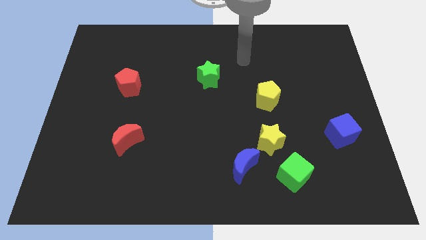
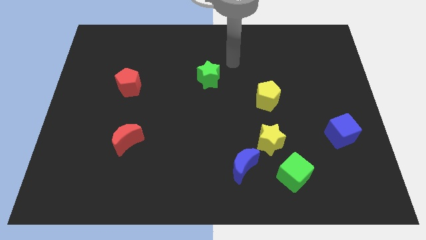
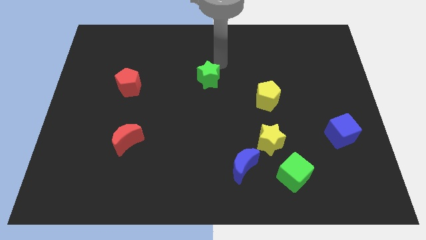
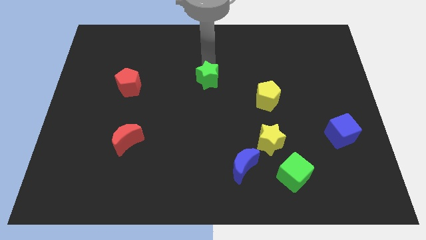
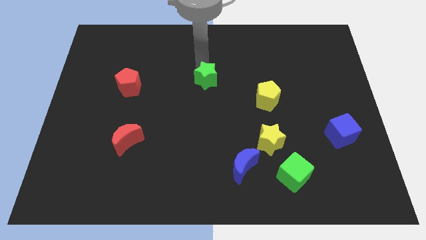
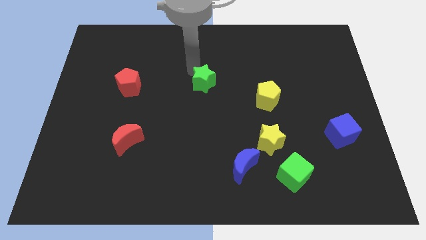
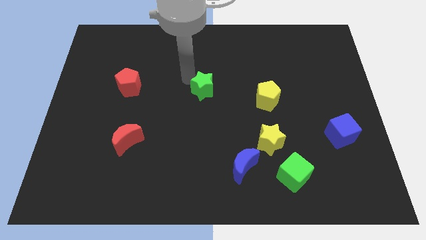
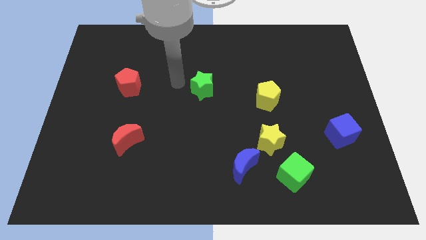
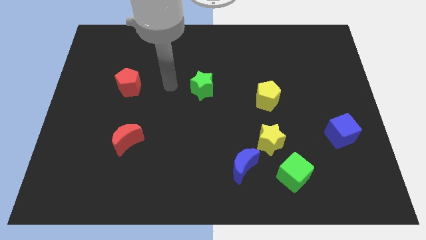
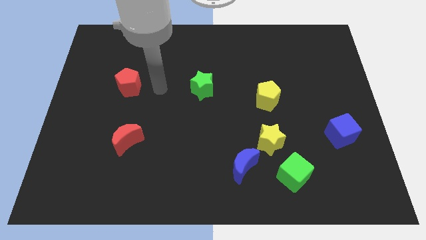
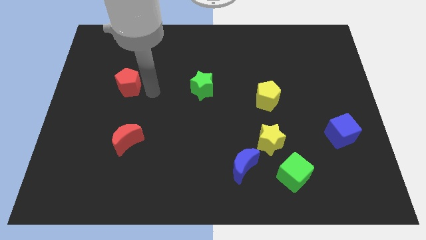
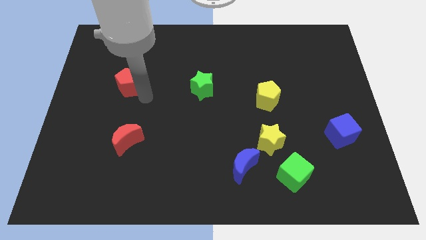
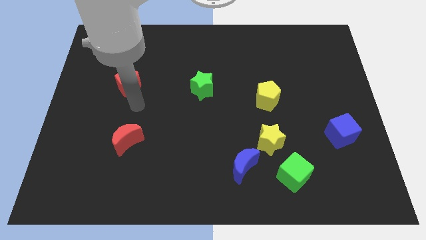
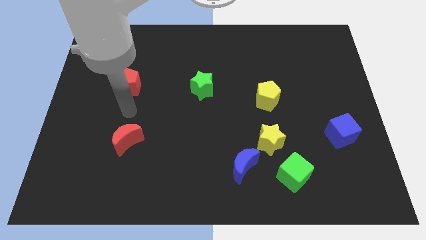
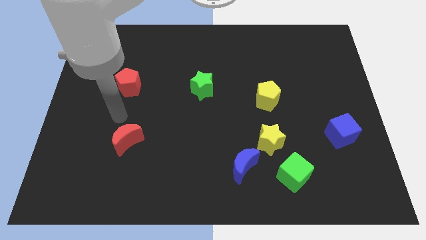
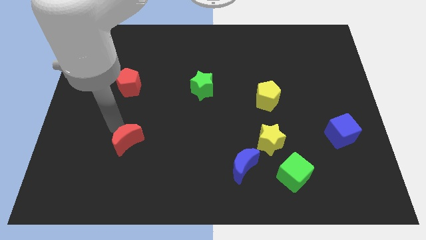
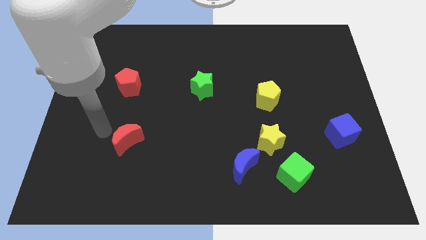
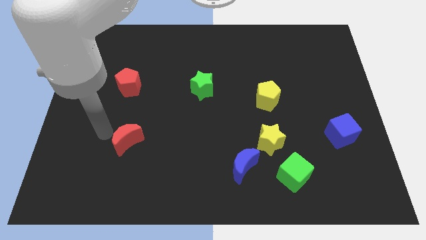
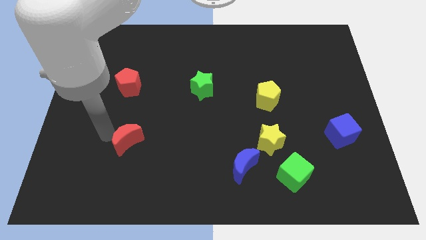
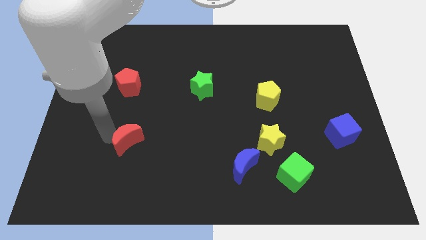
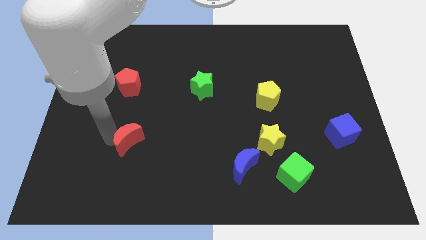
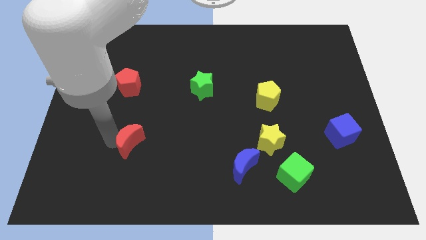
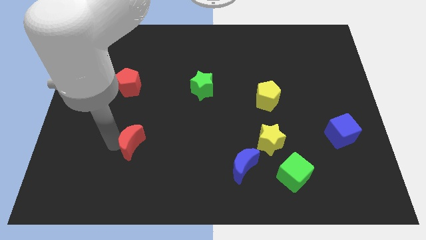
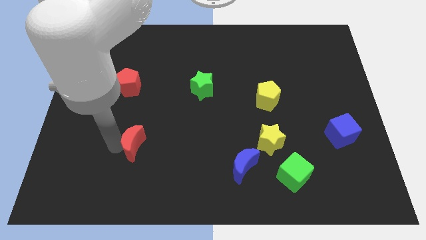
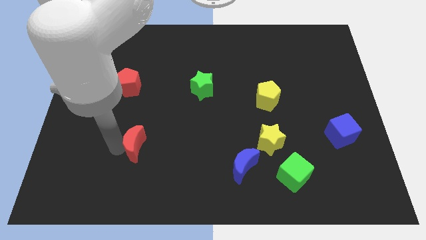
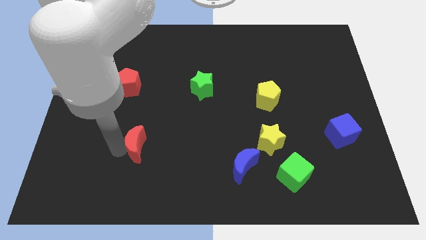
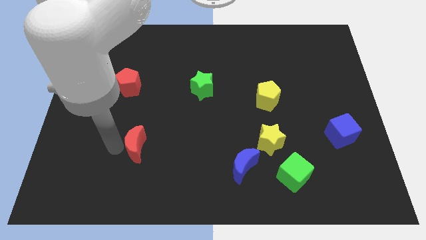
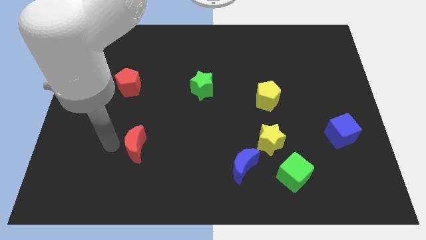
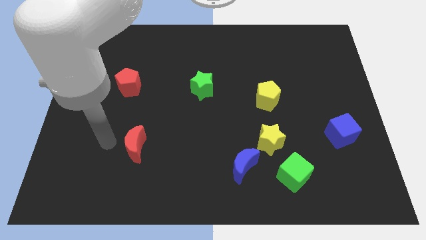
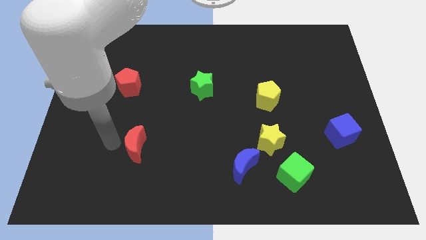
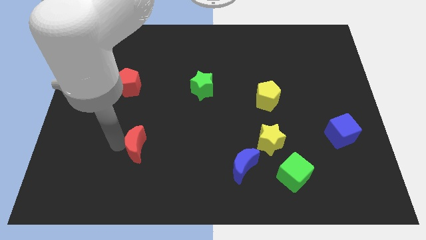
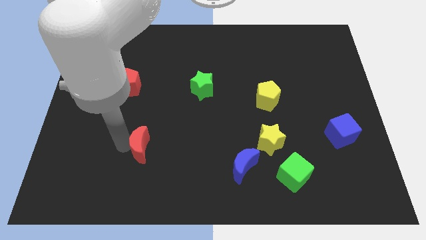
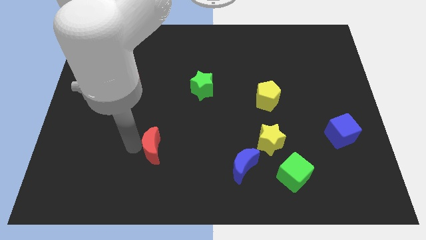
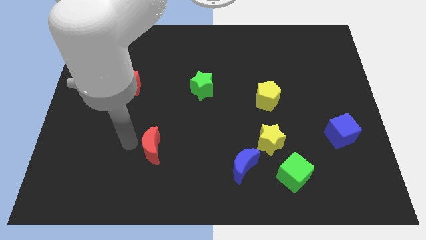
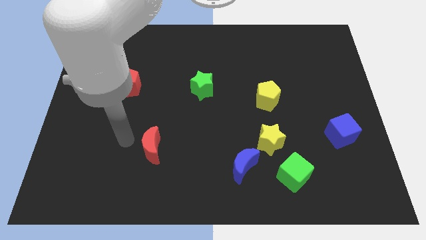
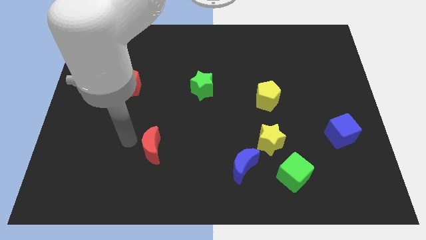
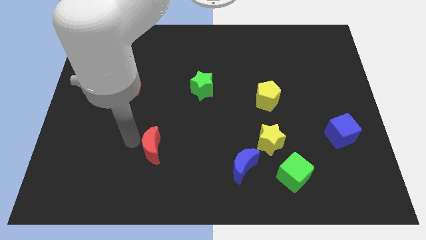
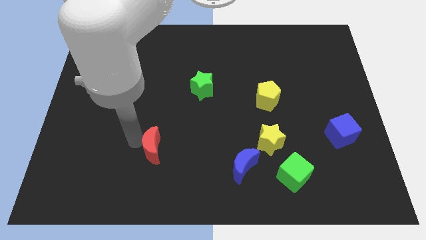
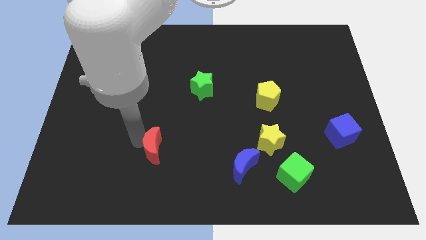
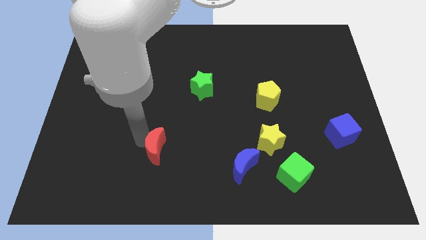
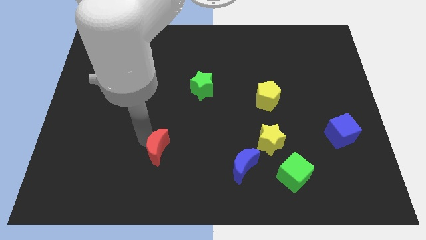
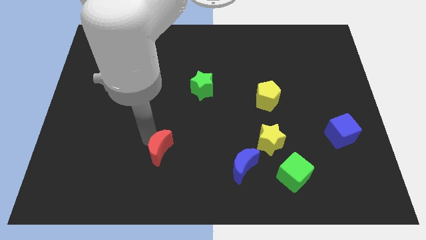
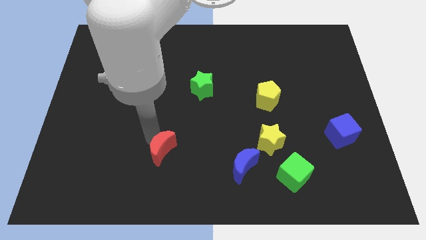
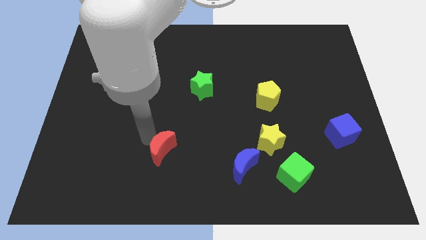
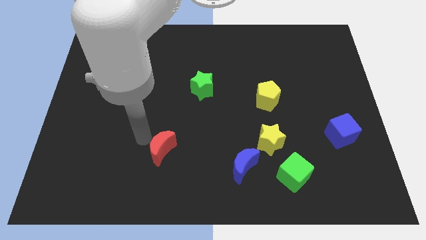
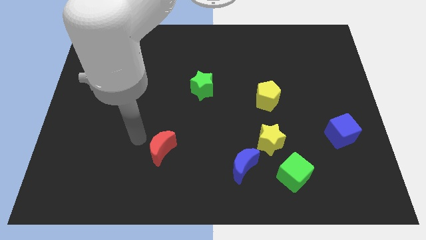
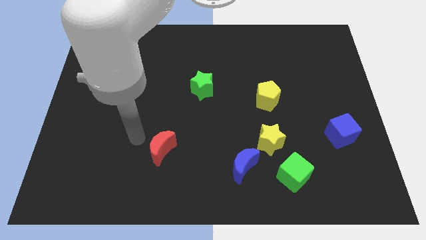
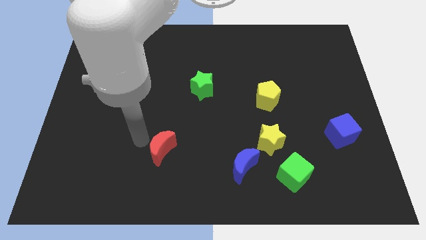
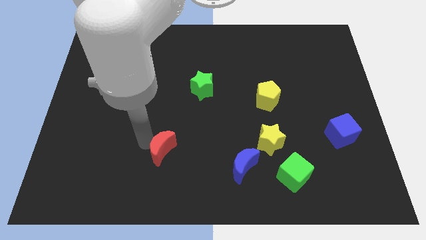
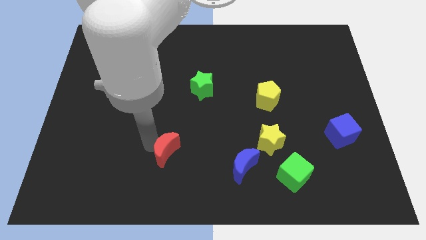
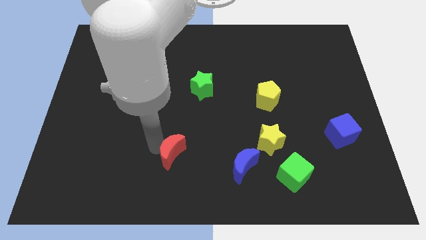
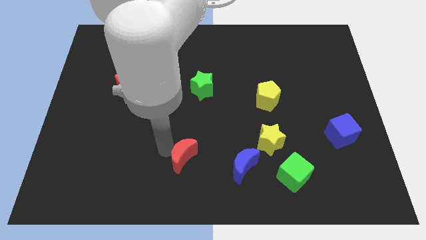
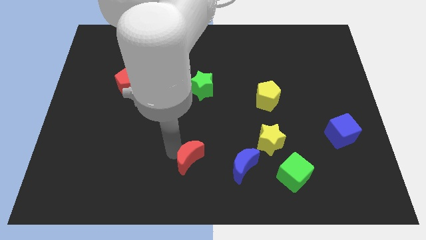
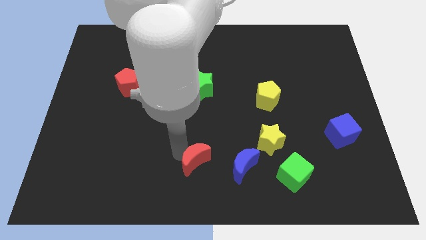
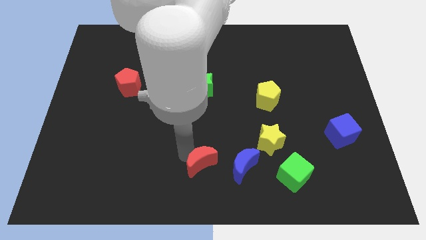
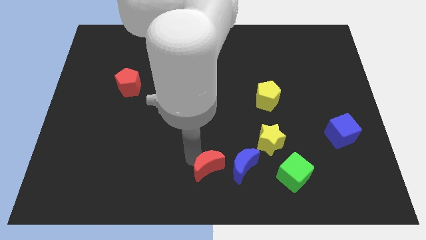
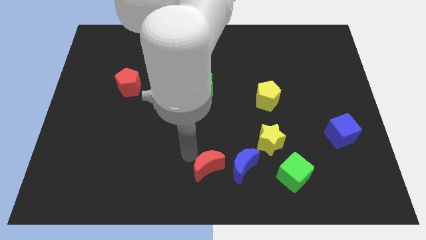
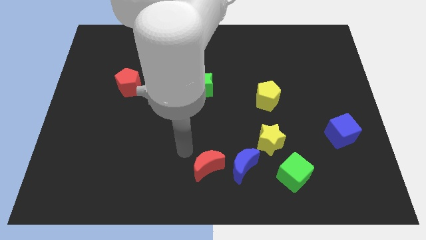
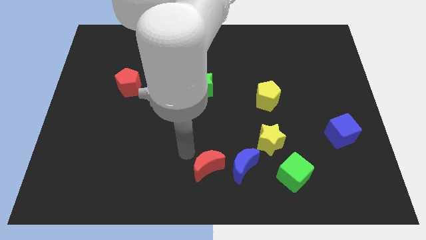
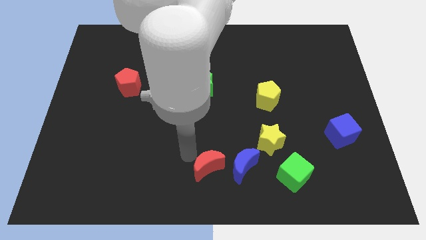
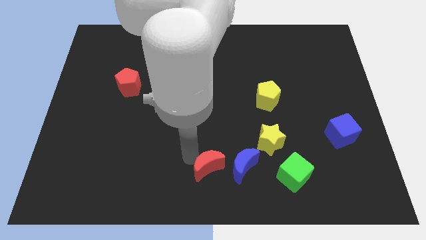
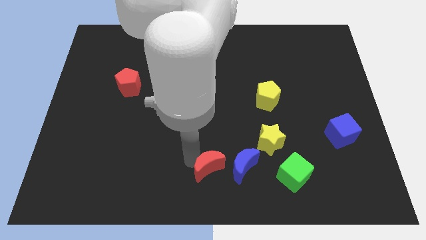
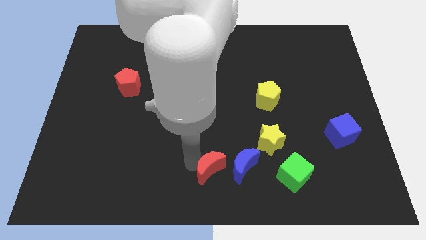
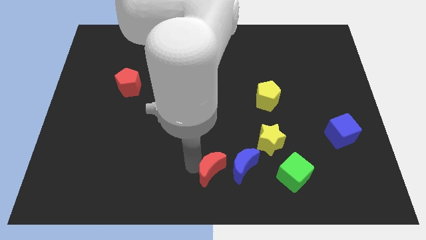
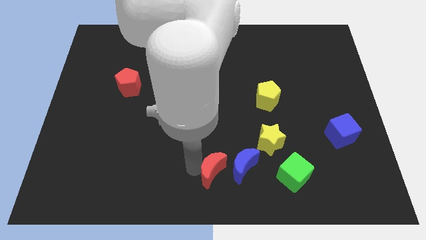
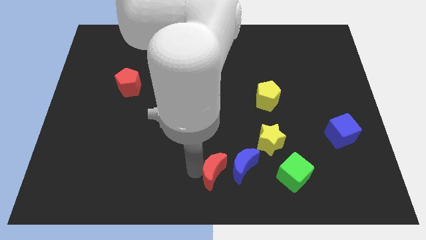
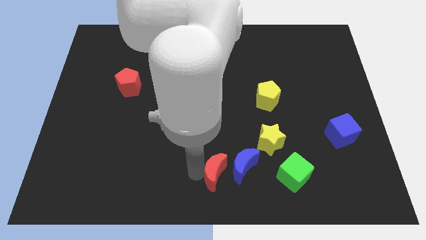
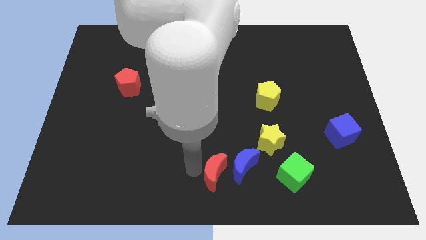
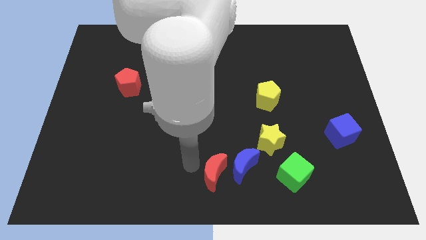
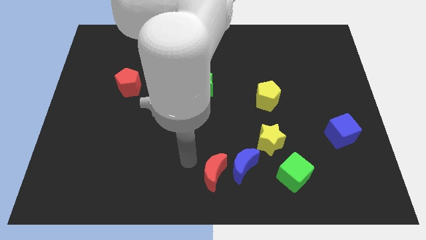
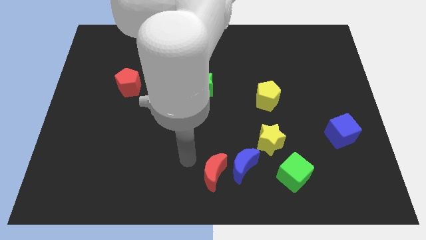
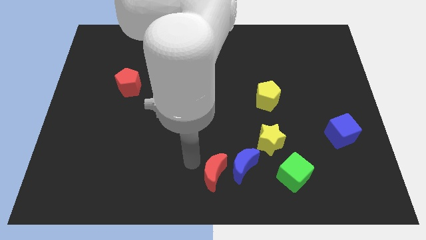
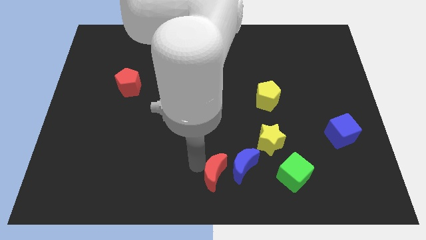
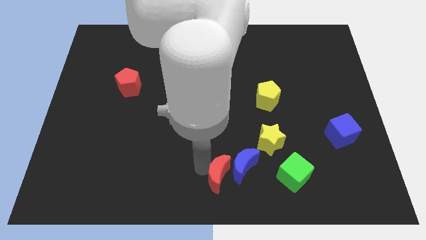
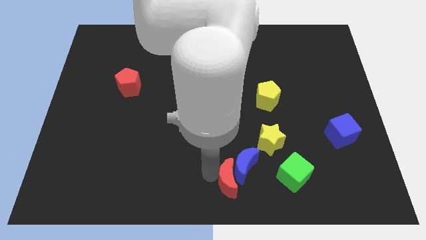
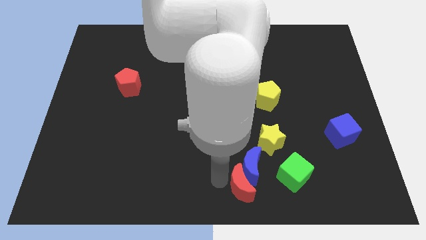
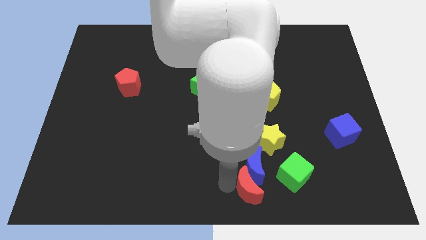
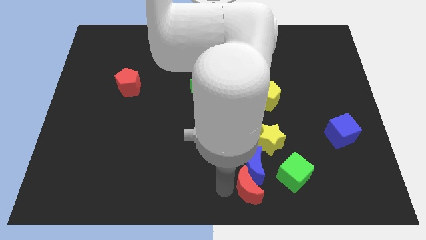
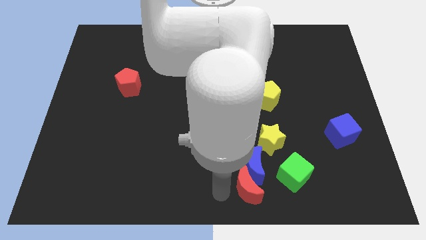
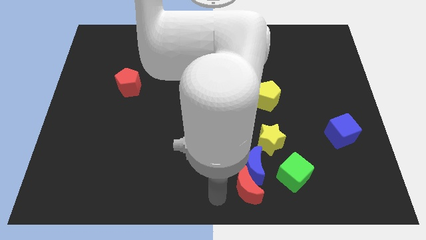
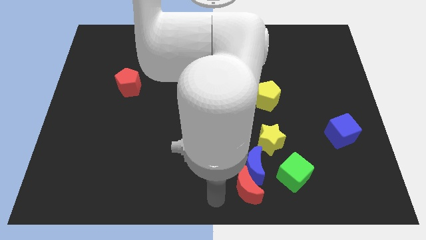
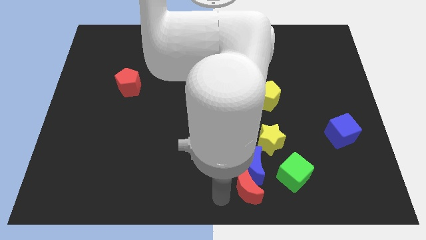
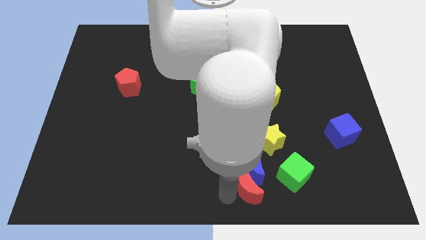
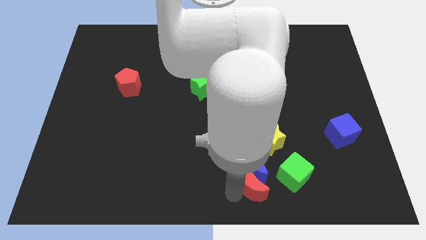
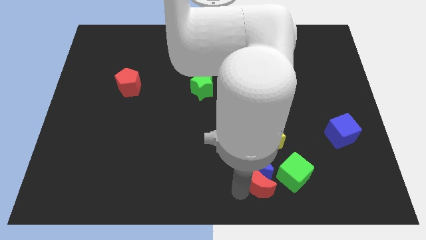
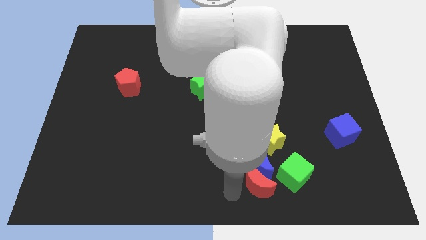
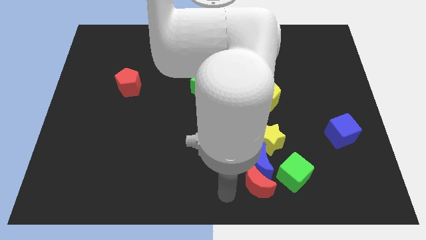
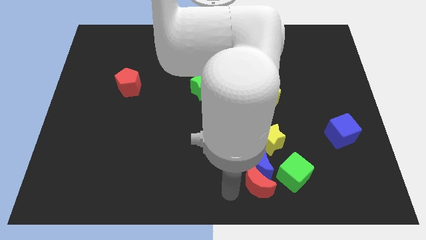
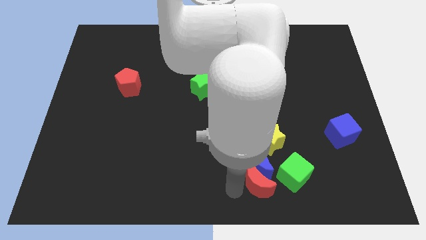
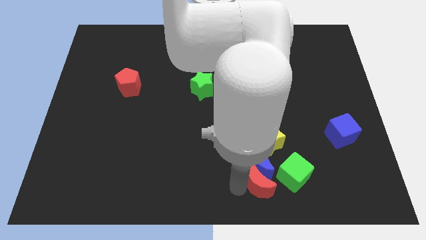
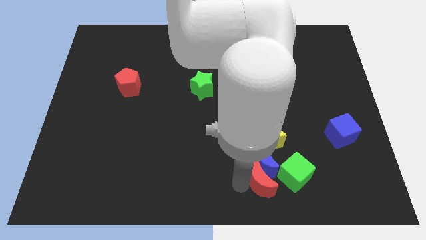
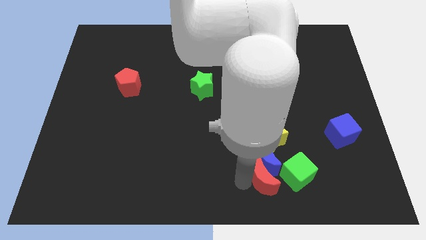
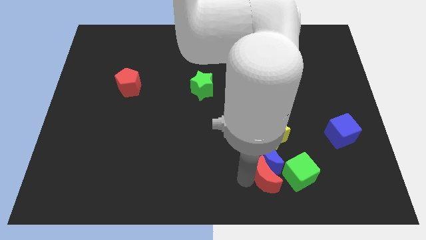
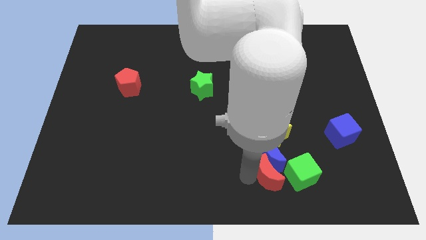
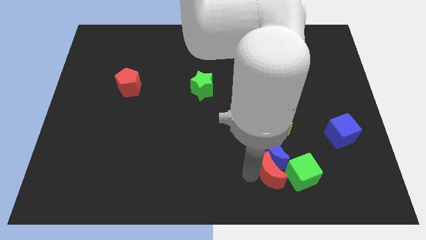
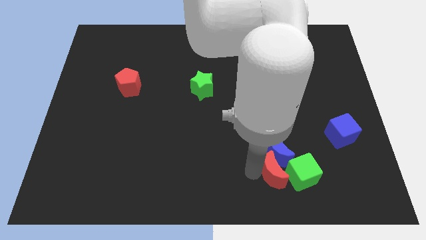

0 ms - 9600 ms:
put the red moon towards the green cube
